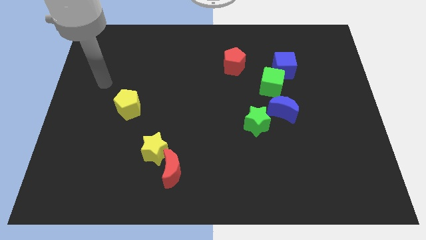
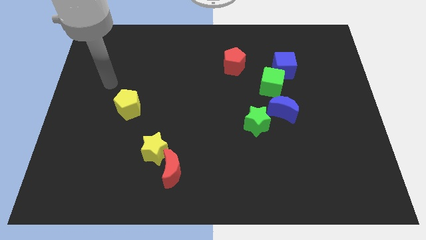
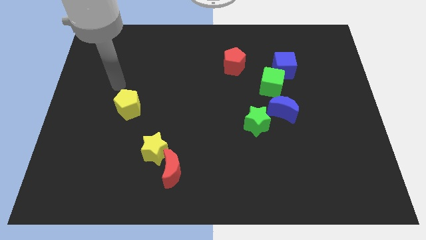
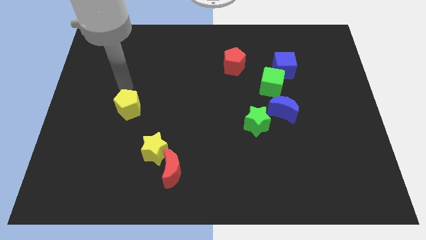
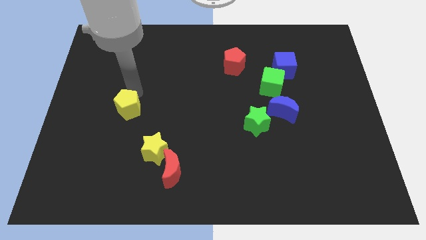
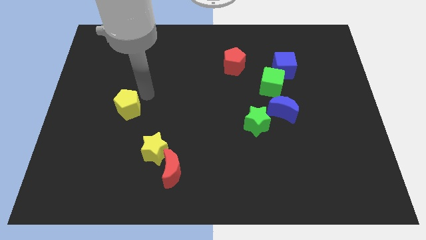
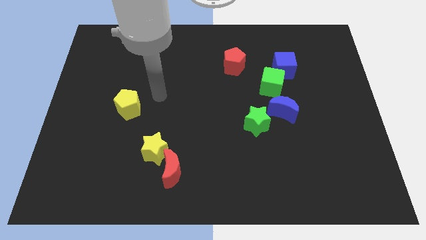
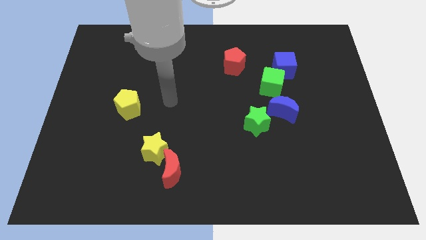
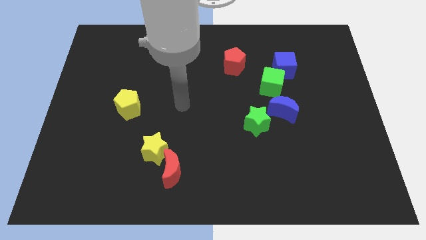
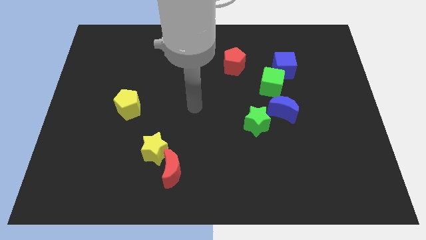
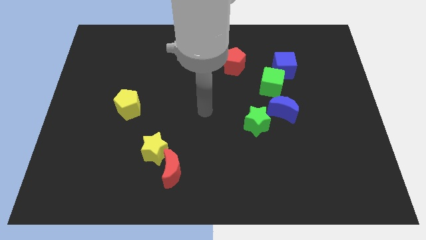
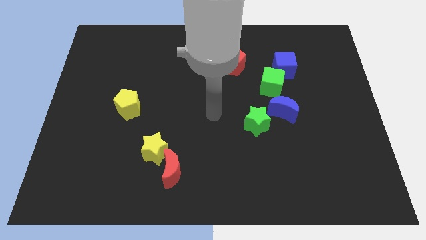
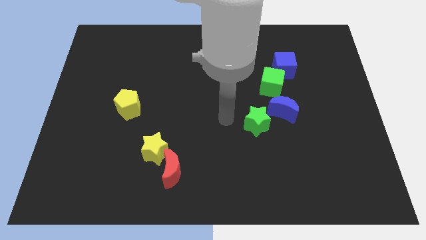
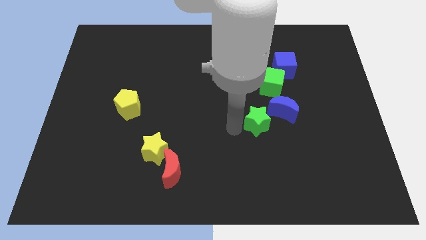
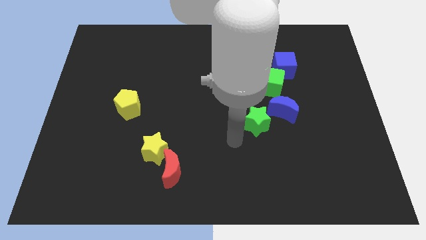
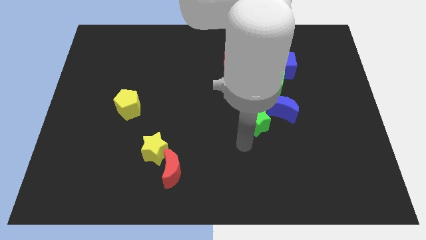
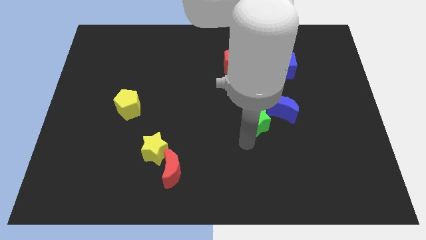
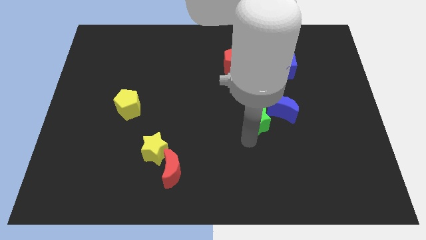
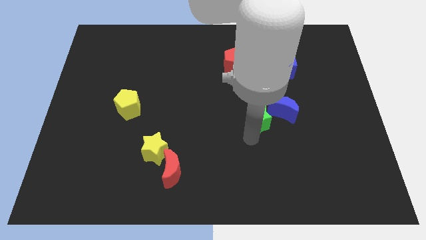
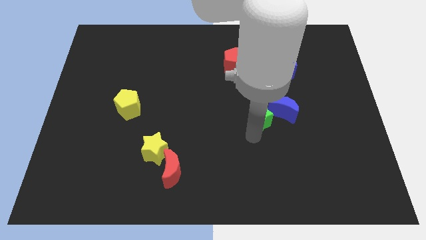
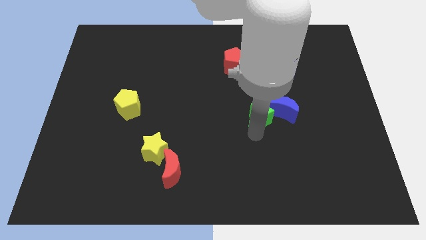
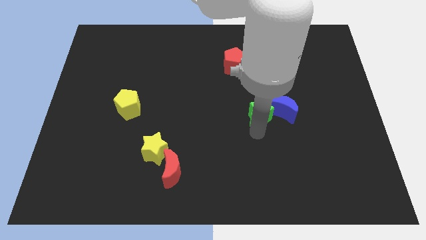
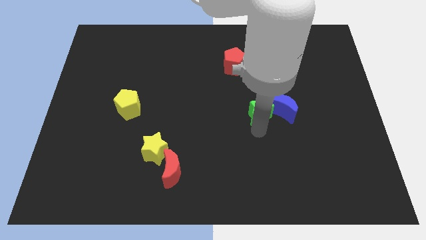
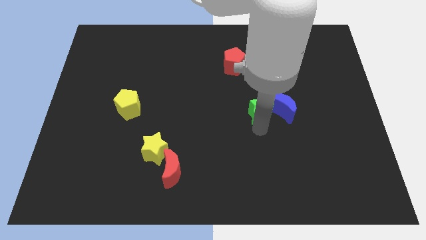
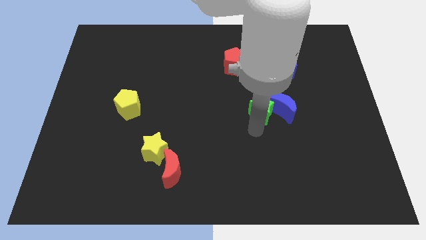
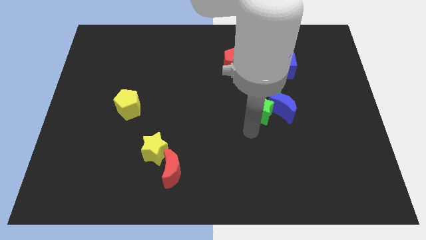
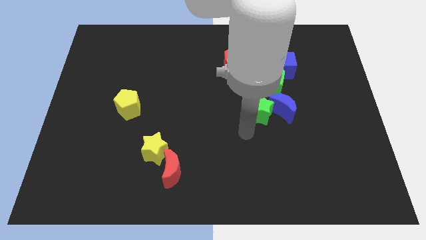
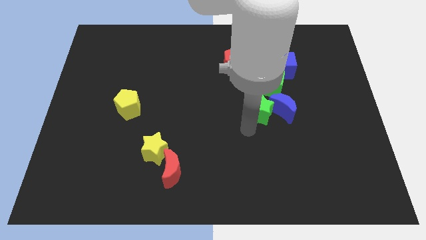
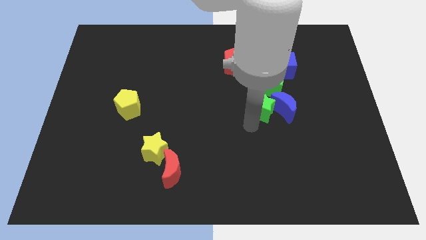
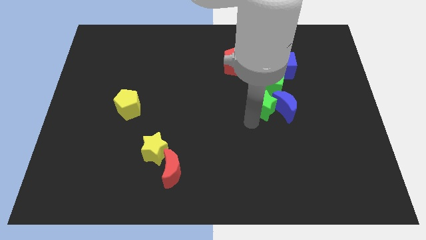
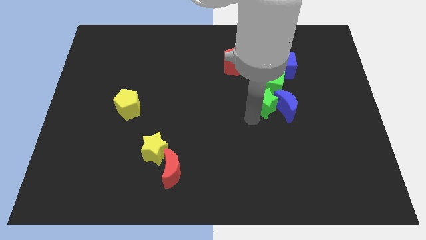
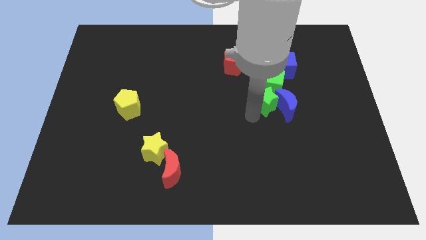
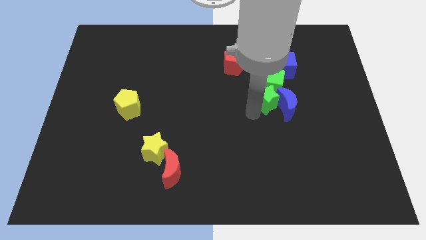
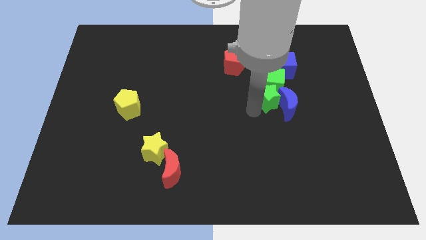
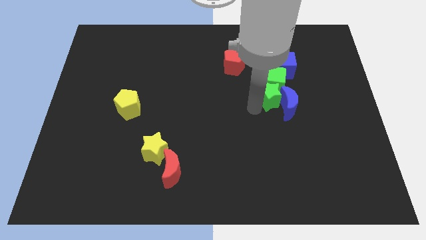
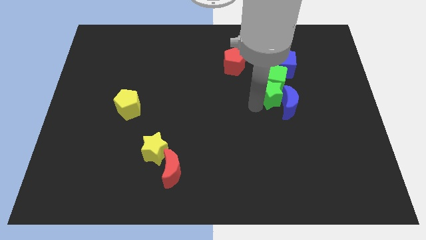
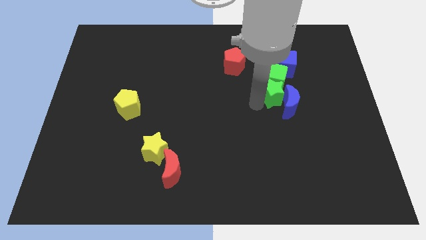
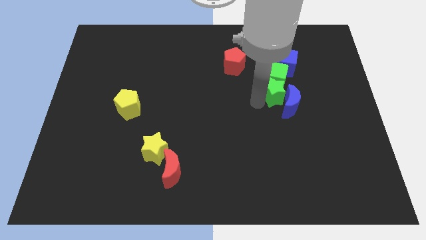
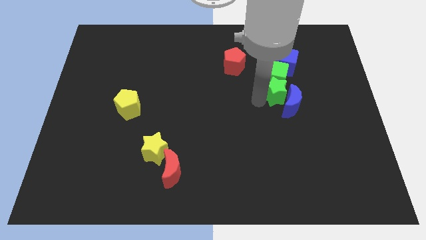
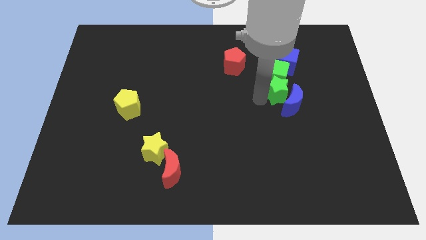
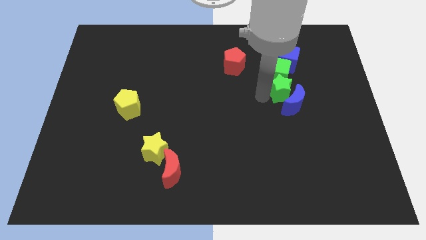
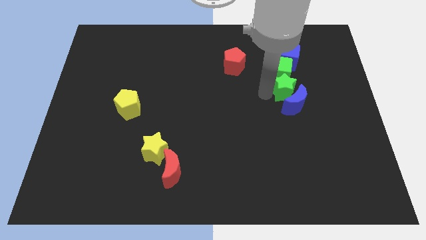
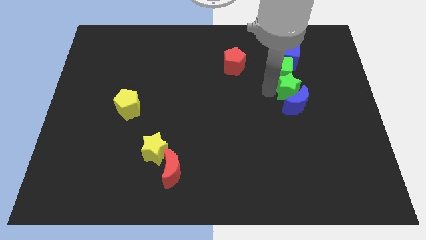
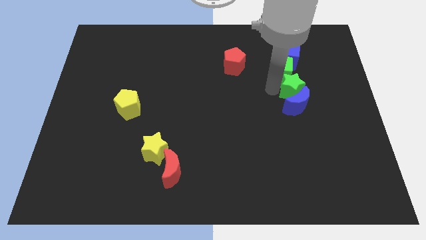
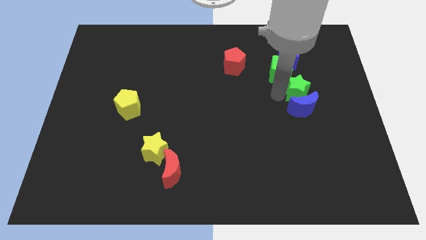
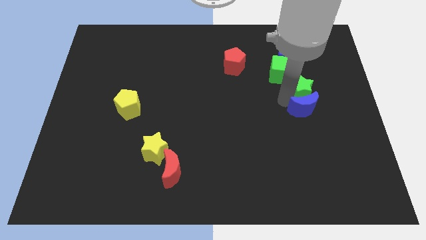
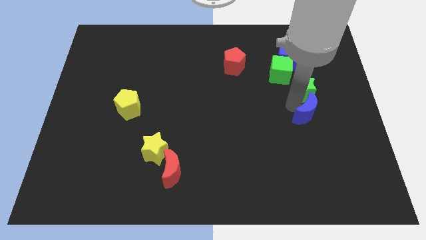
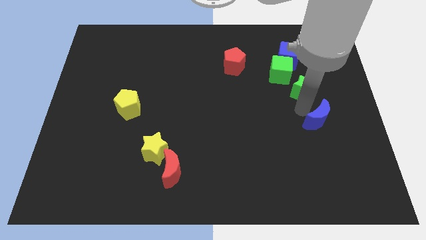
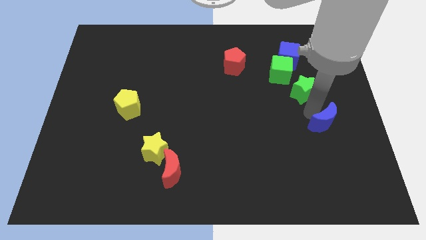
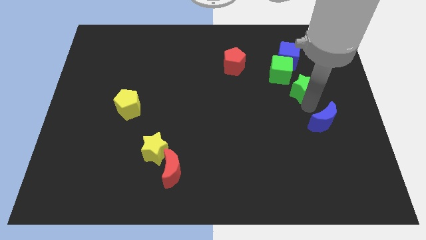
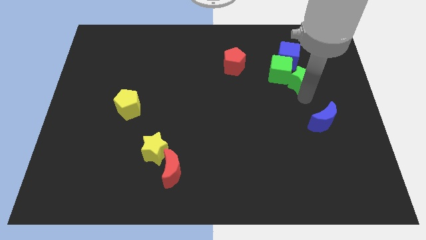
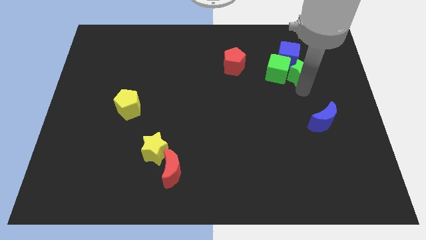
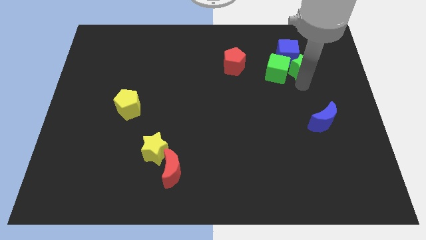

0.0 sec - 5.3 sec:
slide the green star to the blue cube

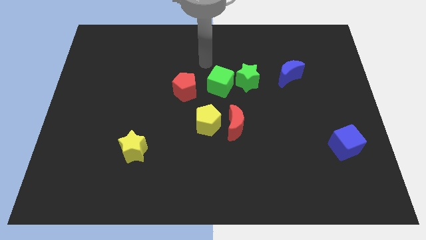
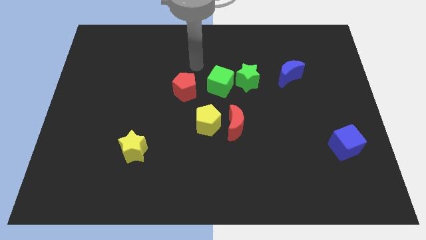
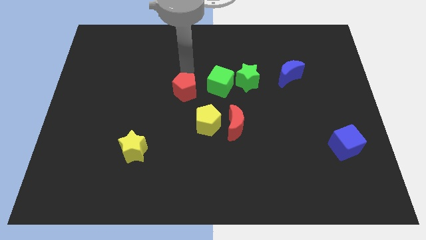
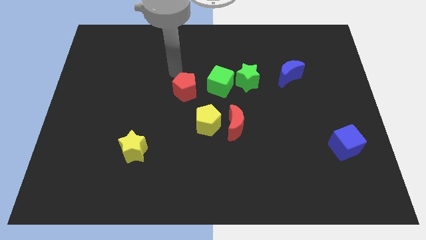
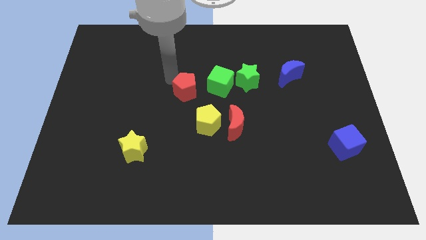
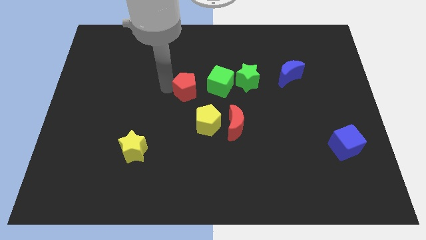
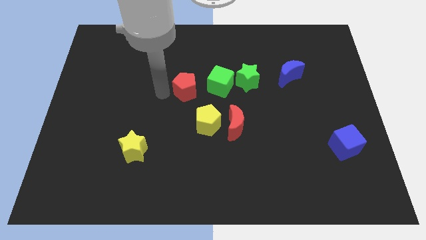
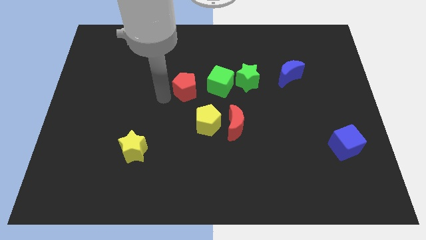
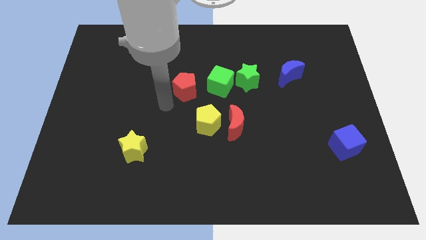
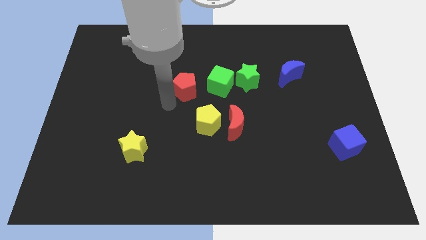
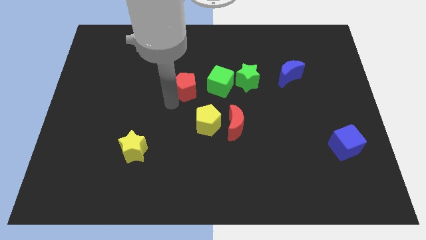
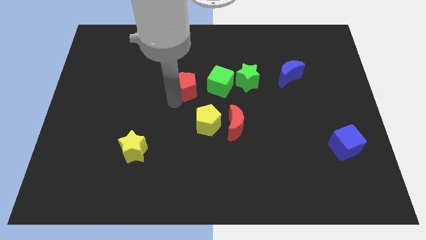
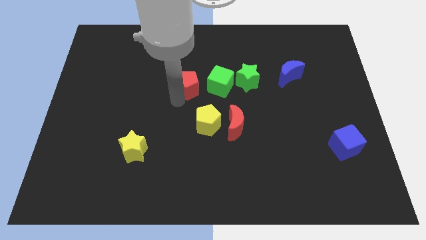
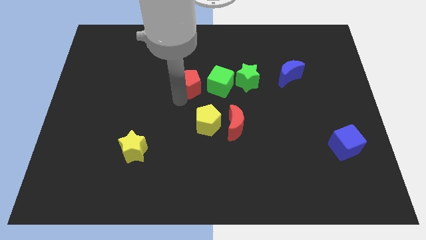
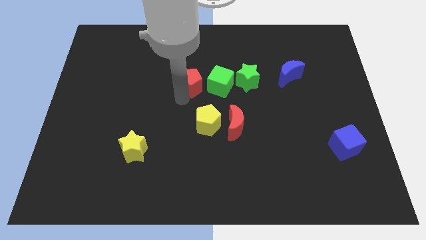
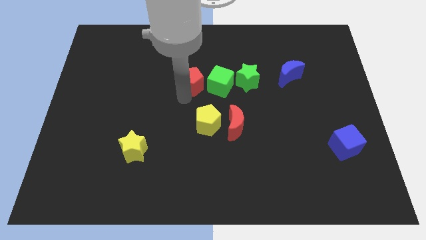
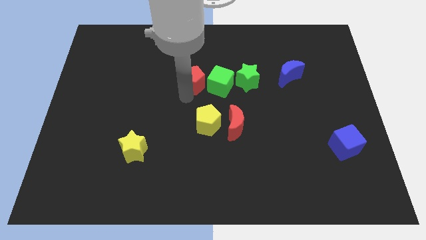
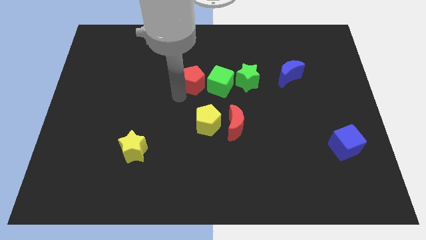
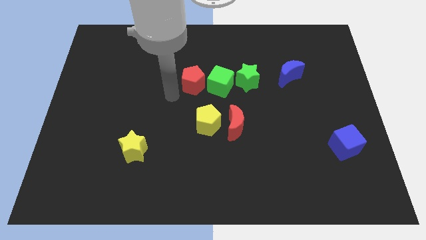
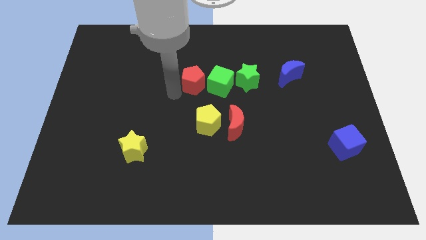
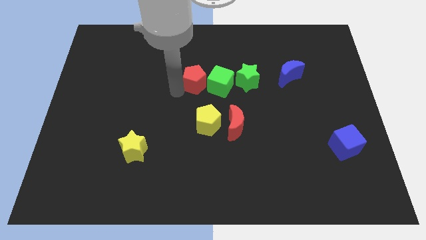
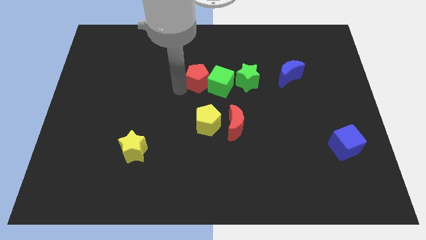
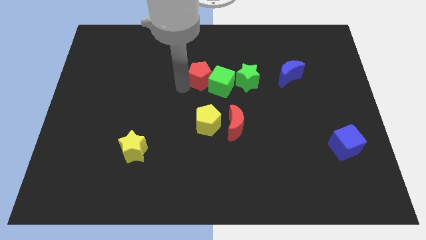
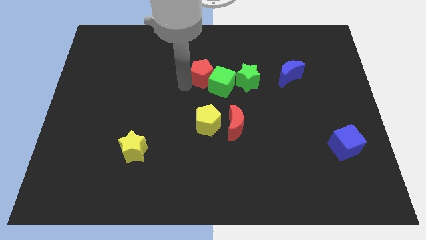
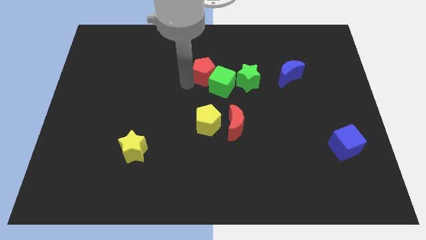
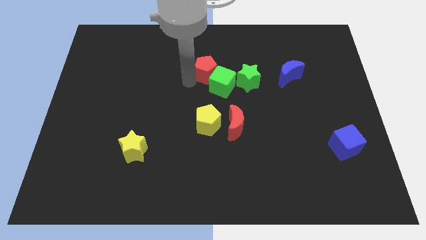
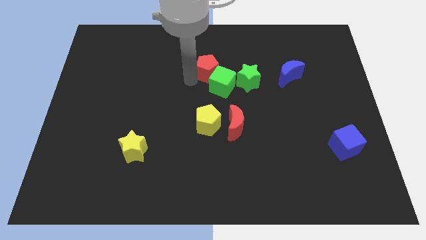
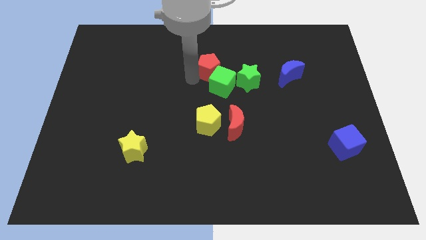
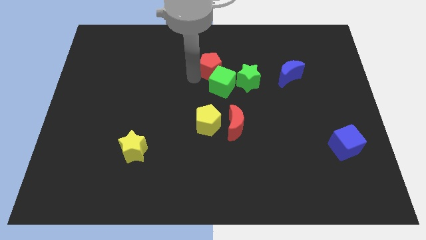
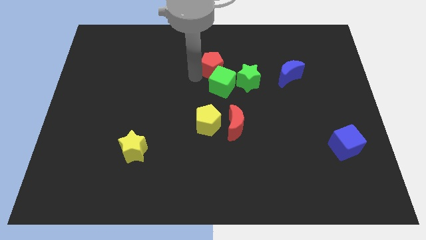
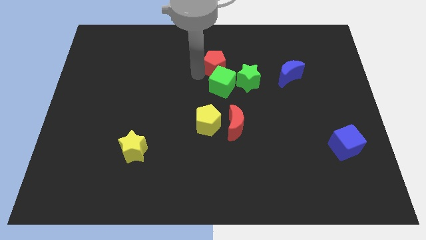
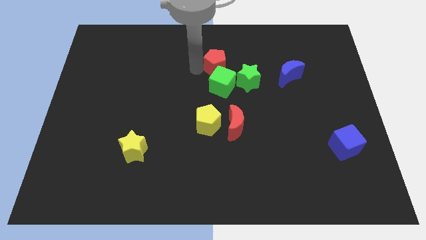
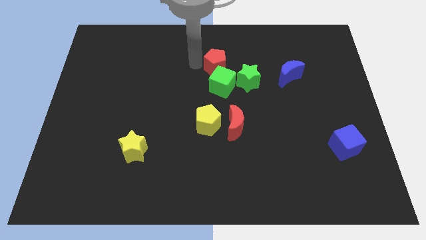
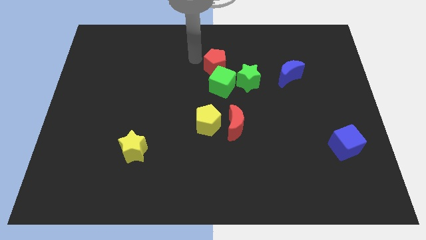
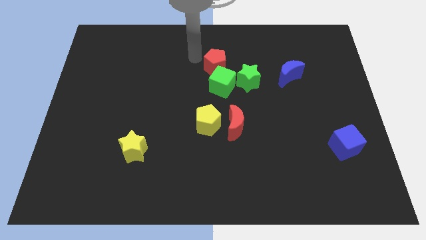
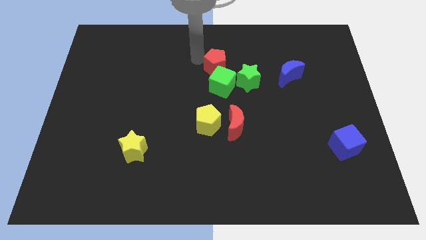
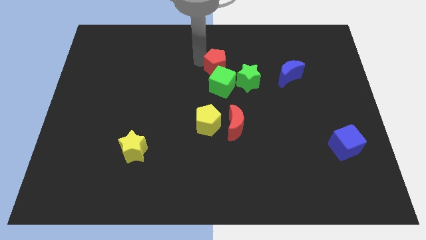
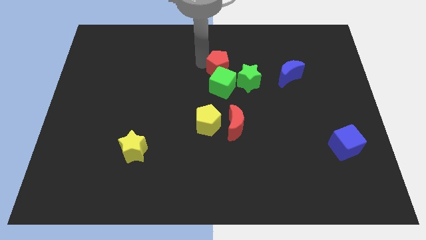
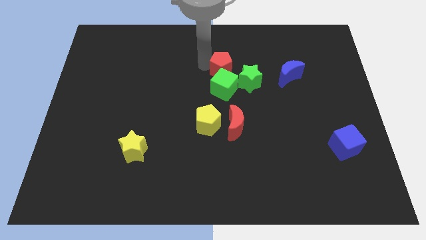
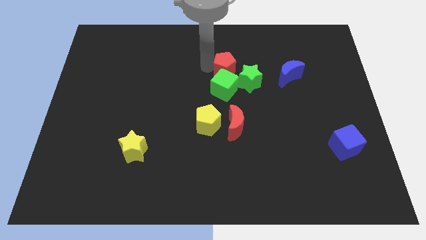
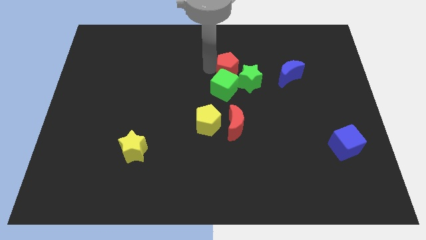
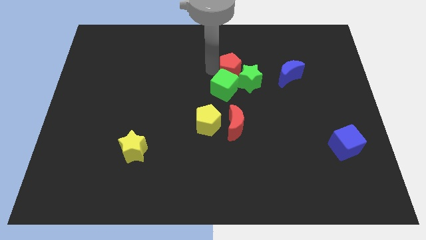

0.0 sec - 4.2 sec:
push the red pentagon towards the green star
